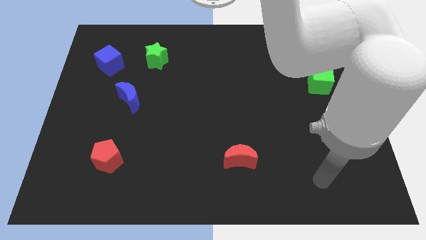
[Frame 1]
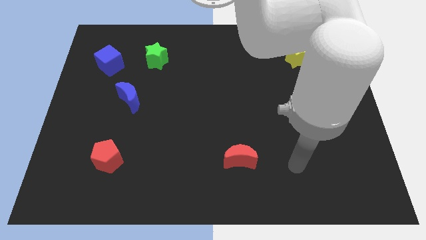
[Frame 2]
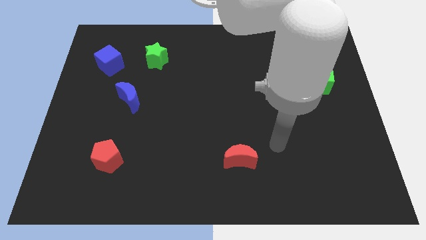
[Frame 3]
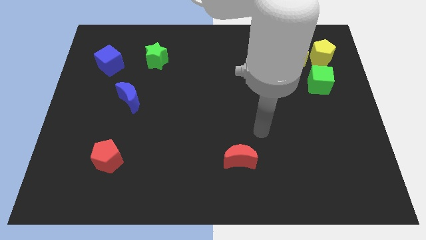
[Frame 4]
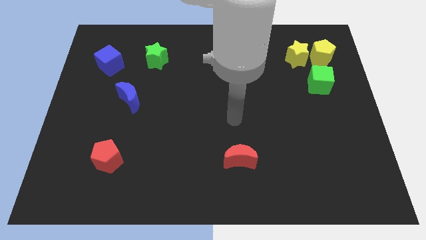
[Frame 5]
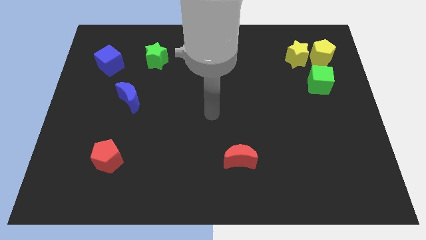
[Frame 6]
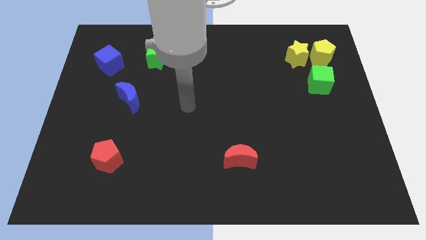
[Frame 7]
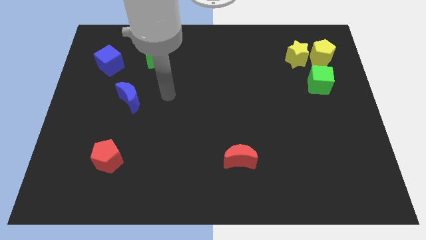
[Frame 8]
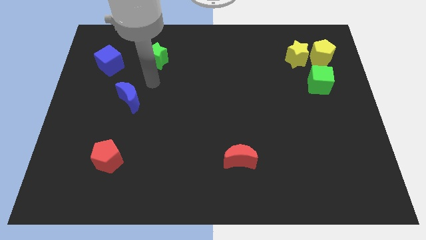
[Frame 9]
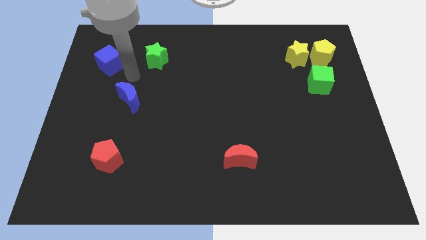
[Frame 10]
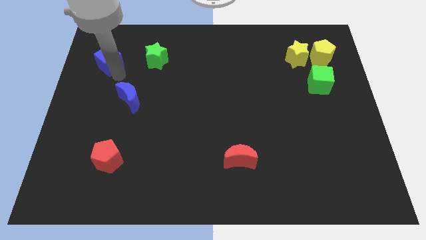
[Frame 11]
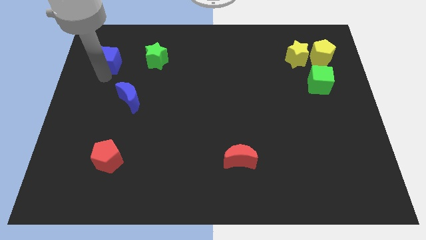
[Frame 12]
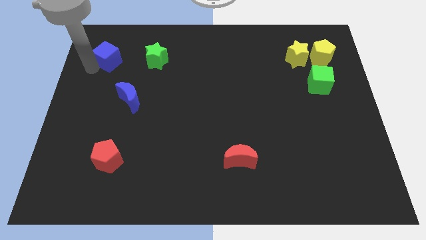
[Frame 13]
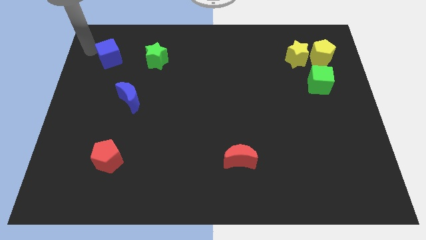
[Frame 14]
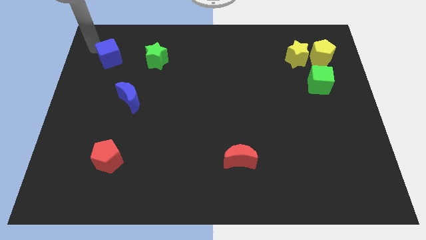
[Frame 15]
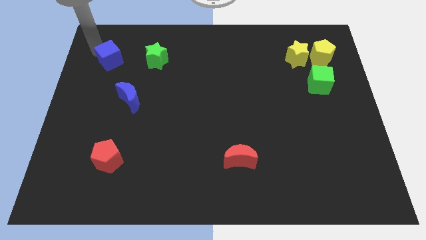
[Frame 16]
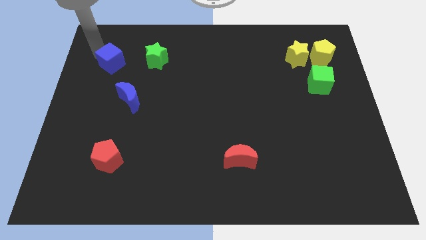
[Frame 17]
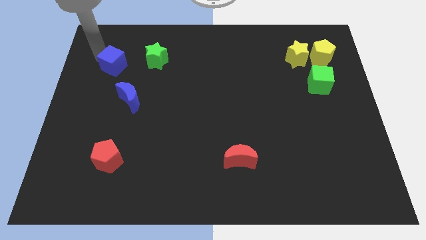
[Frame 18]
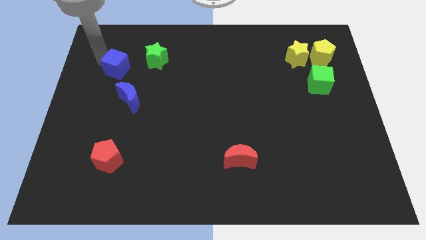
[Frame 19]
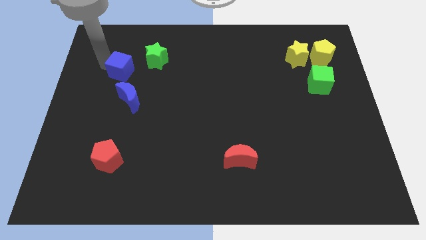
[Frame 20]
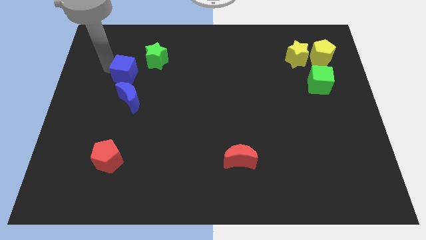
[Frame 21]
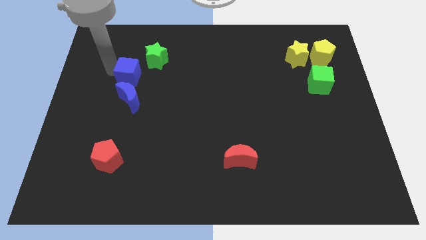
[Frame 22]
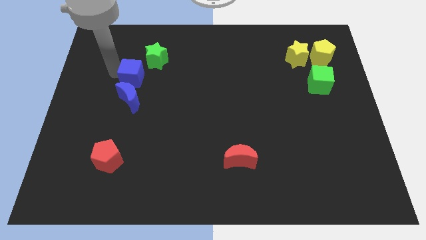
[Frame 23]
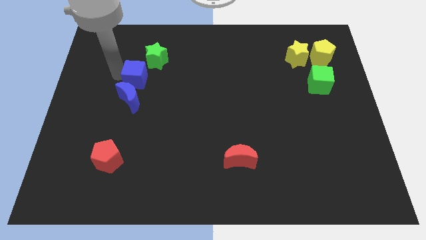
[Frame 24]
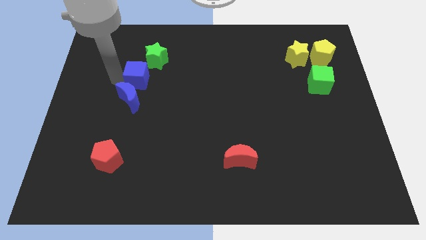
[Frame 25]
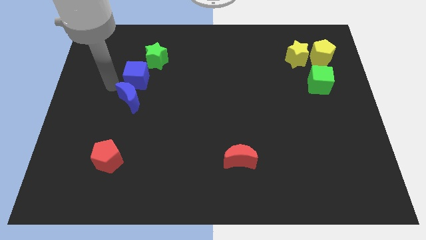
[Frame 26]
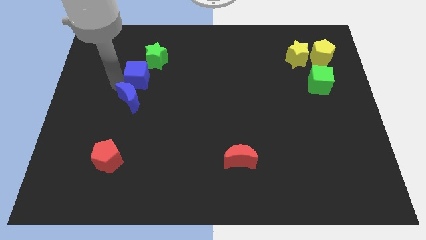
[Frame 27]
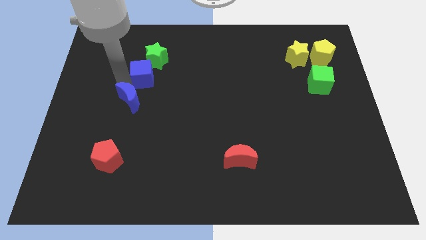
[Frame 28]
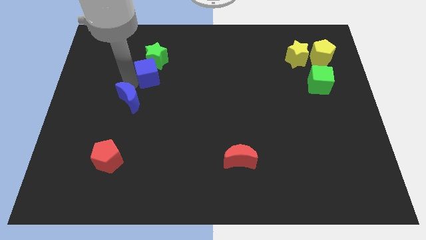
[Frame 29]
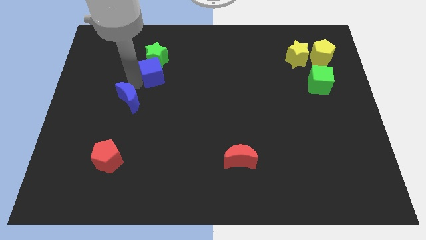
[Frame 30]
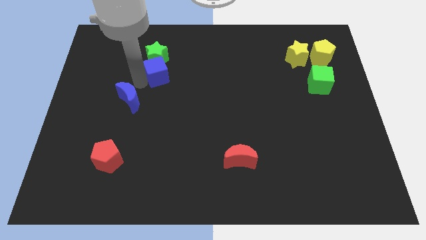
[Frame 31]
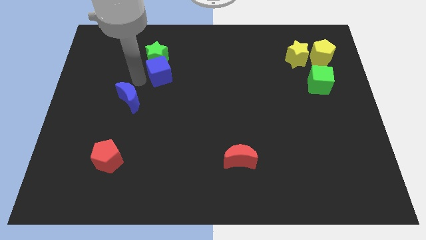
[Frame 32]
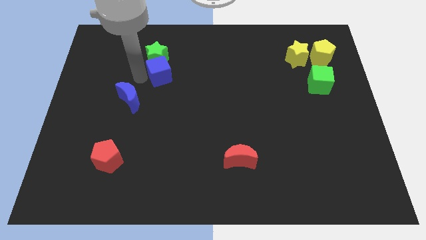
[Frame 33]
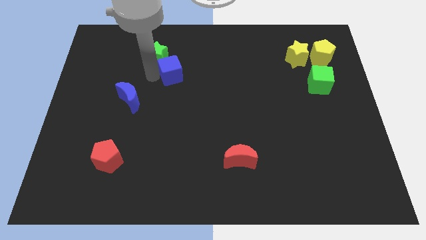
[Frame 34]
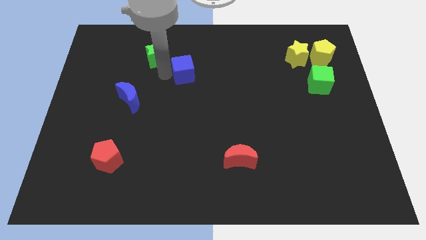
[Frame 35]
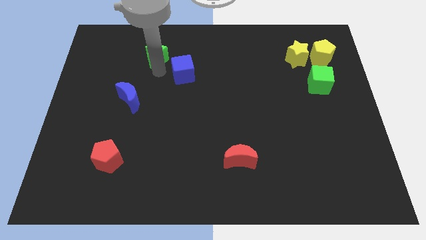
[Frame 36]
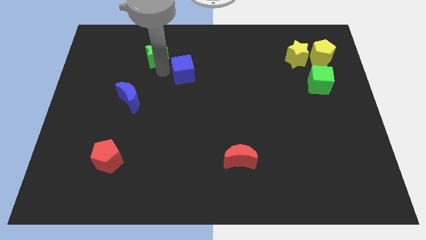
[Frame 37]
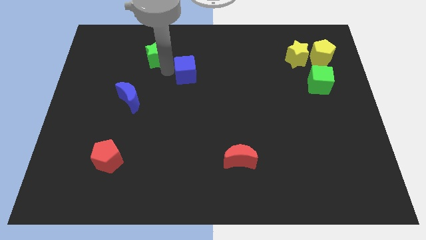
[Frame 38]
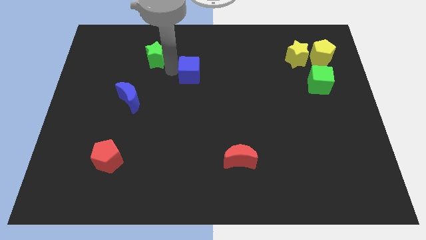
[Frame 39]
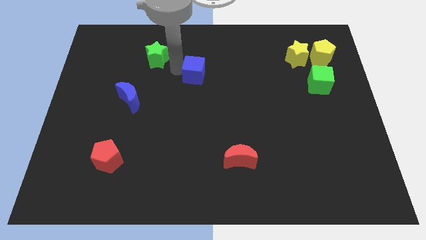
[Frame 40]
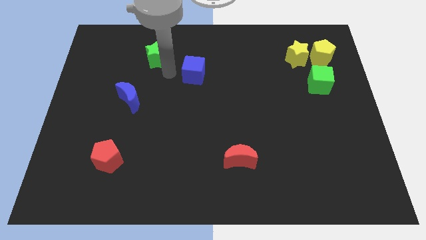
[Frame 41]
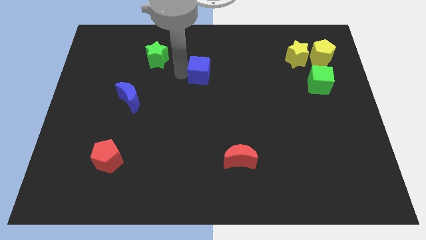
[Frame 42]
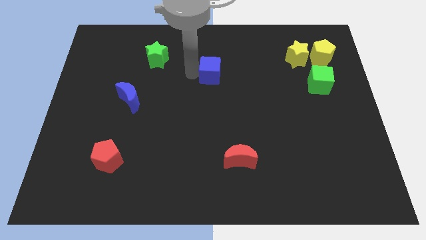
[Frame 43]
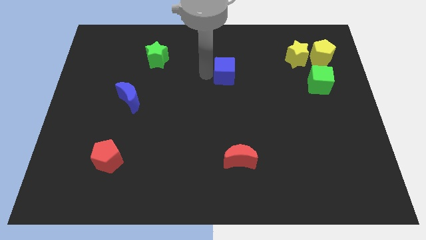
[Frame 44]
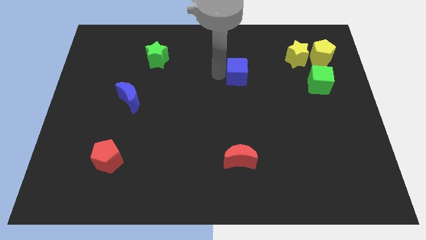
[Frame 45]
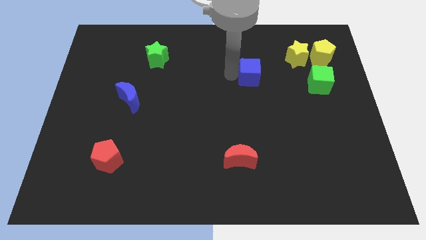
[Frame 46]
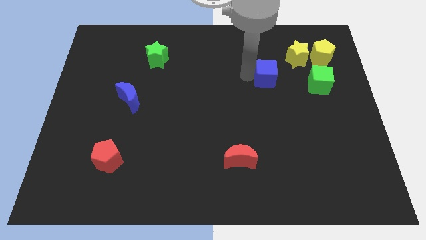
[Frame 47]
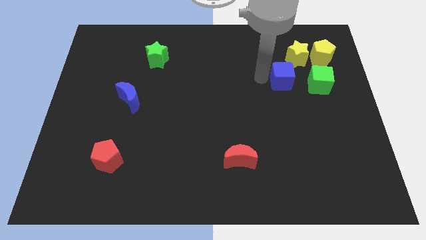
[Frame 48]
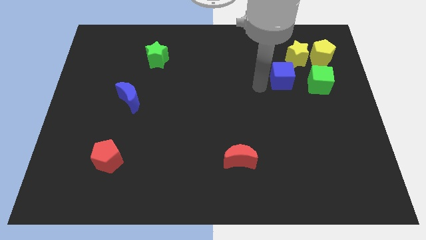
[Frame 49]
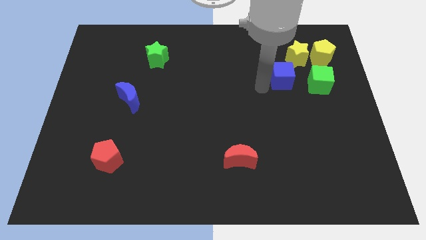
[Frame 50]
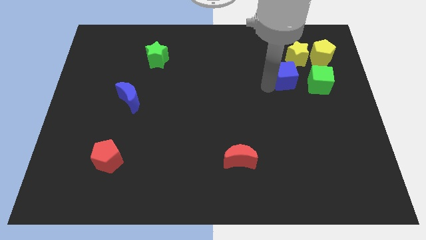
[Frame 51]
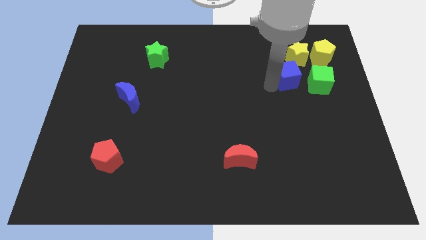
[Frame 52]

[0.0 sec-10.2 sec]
slide the blue cube to the bottom left side of the yellow pentagon

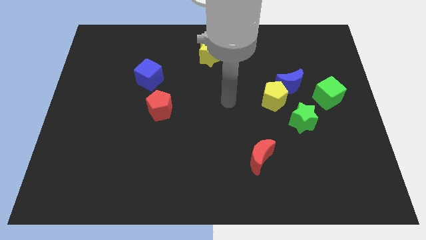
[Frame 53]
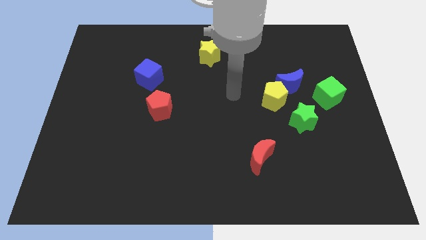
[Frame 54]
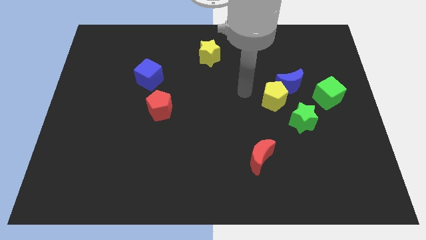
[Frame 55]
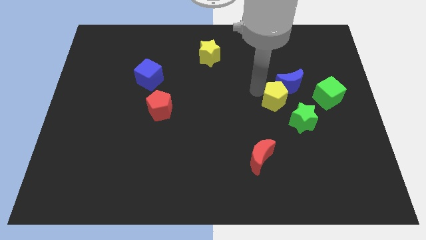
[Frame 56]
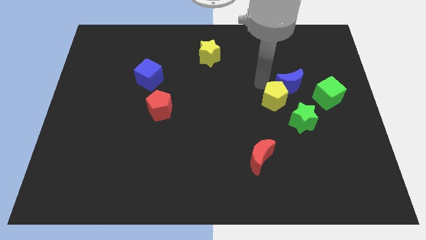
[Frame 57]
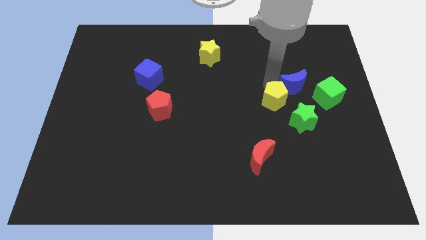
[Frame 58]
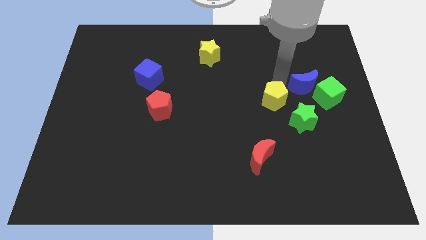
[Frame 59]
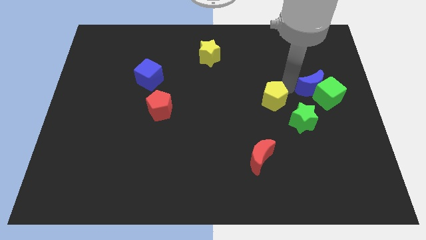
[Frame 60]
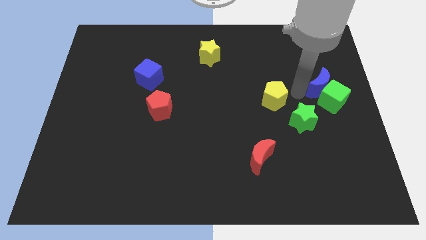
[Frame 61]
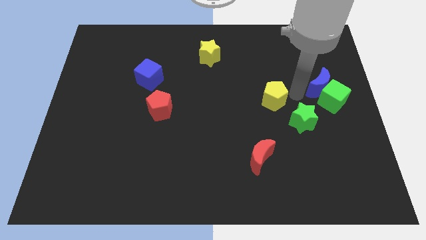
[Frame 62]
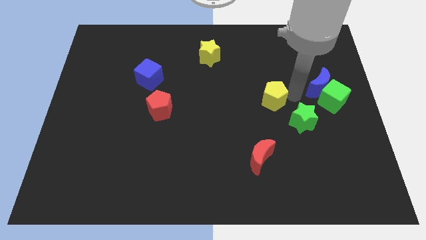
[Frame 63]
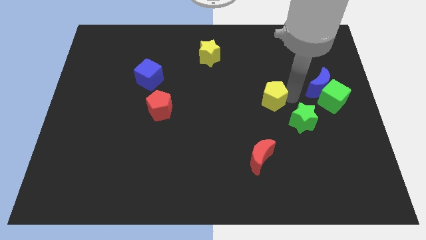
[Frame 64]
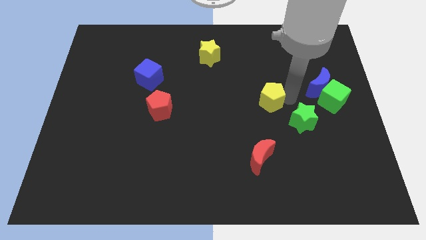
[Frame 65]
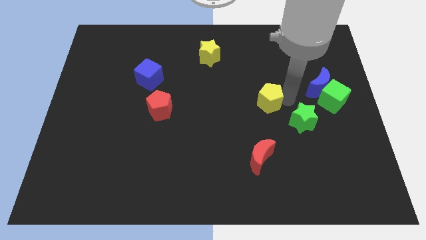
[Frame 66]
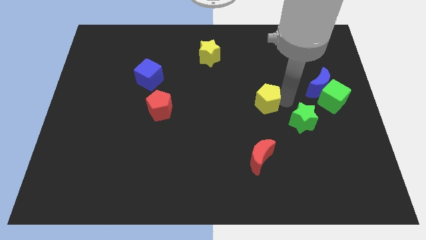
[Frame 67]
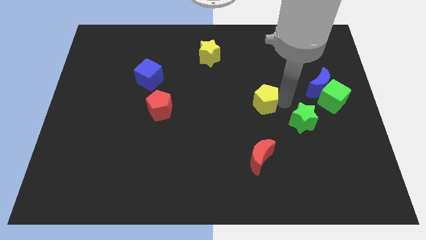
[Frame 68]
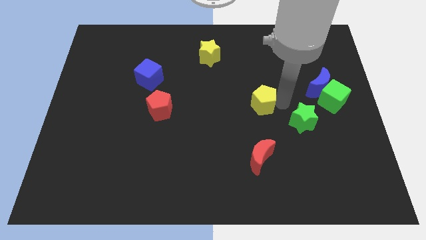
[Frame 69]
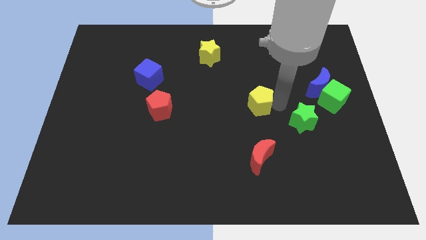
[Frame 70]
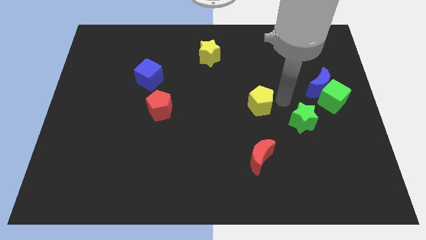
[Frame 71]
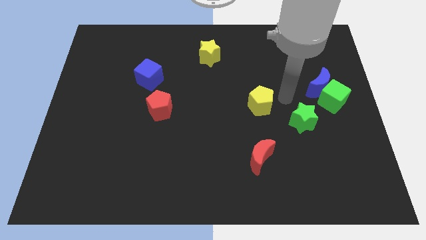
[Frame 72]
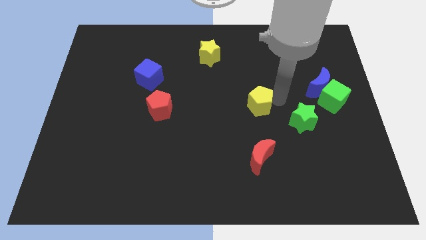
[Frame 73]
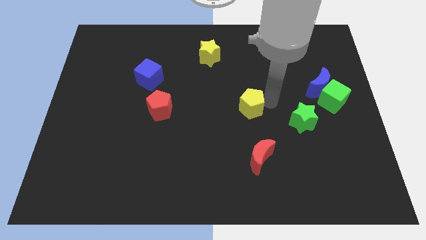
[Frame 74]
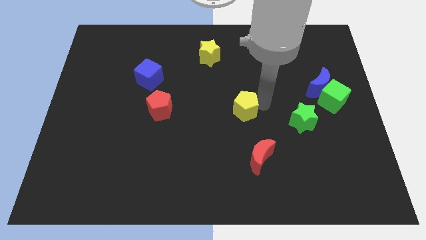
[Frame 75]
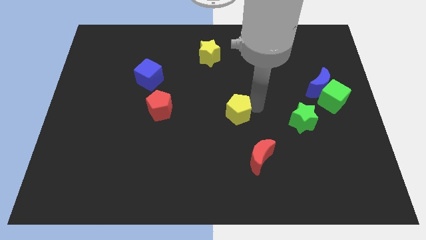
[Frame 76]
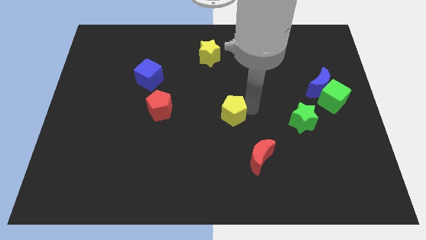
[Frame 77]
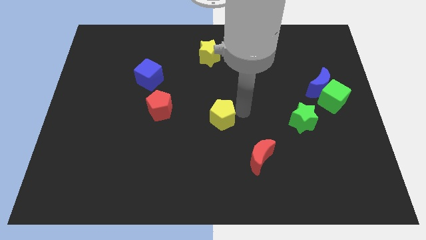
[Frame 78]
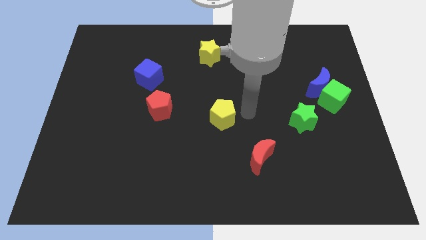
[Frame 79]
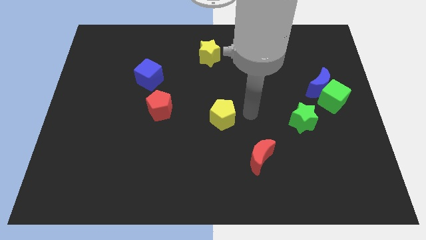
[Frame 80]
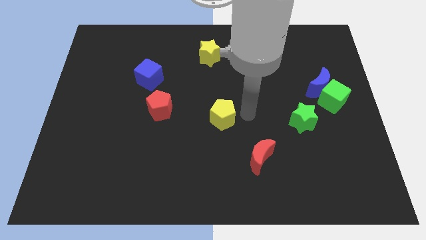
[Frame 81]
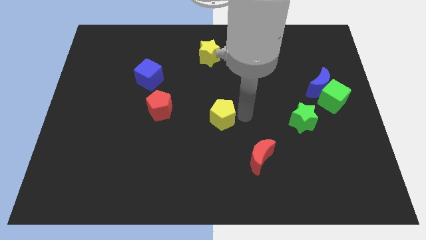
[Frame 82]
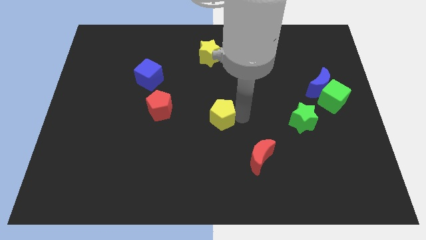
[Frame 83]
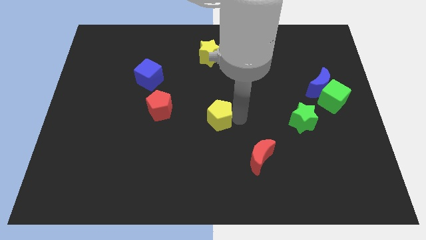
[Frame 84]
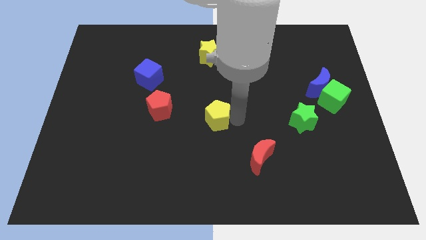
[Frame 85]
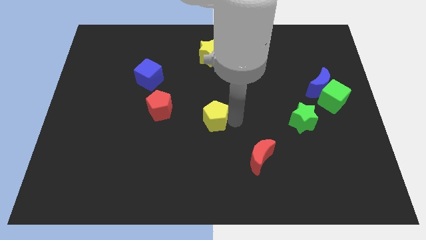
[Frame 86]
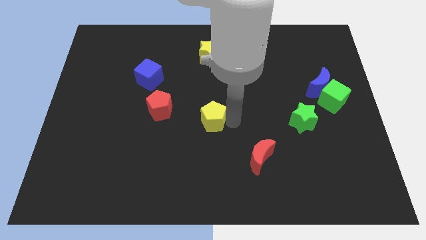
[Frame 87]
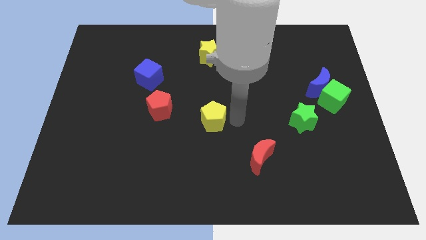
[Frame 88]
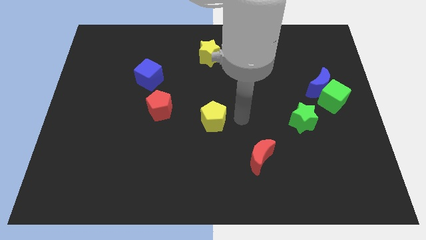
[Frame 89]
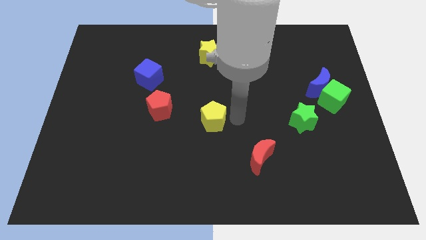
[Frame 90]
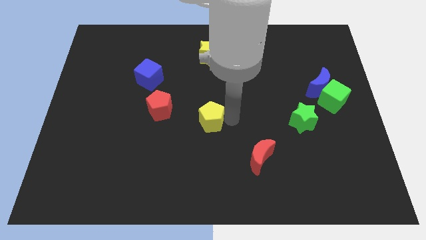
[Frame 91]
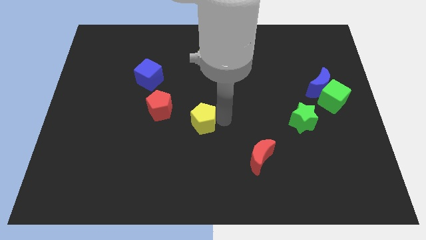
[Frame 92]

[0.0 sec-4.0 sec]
slide the yellow pentagon to the bottom right side of the red pentagon
